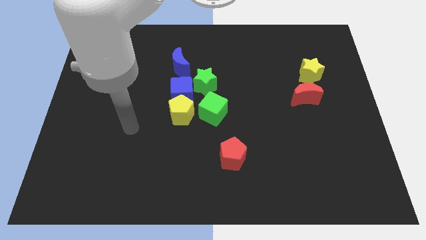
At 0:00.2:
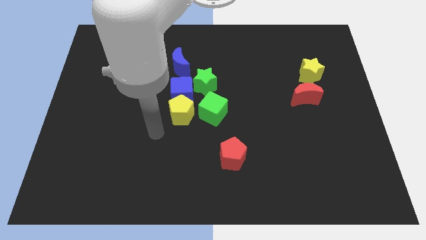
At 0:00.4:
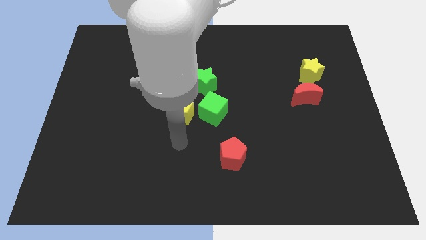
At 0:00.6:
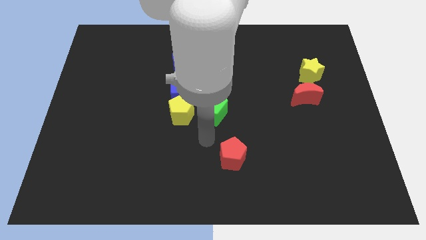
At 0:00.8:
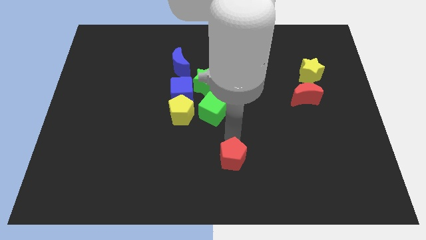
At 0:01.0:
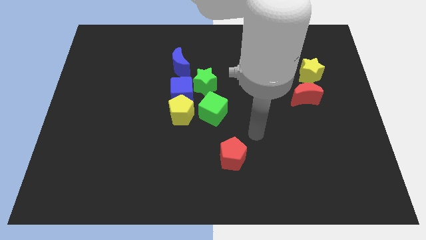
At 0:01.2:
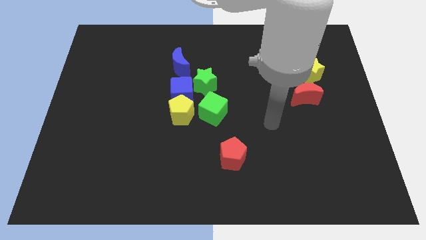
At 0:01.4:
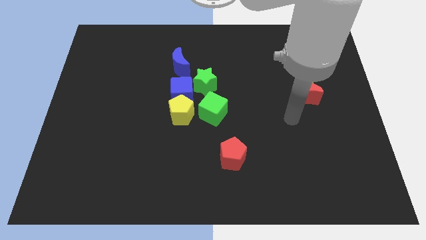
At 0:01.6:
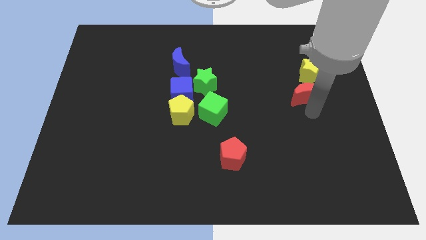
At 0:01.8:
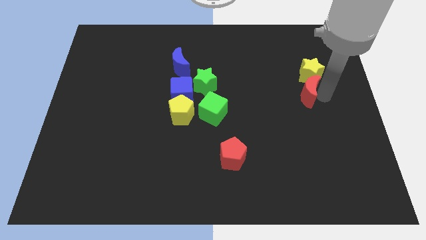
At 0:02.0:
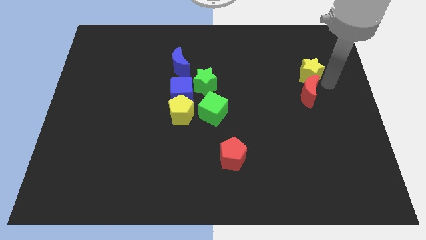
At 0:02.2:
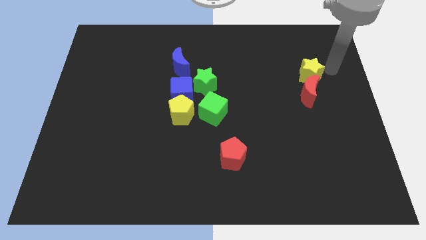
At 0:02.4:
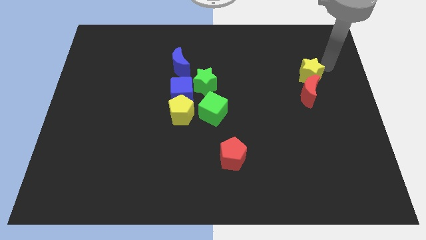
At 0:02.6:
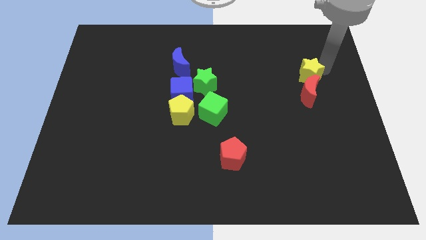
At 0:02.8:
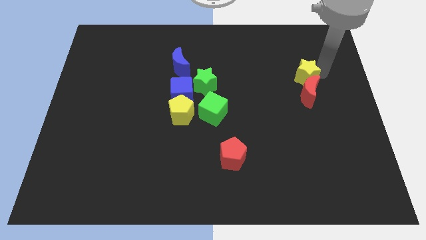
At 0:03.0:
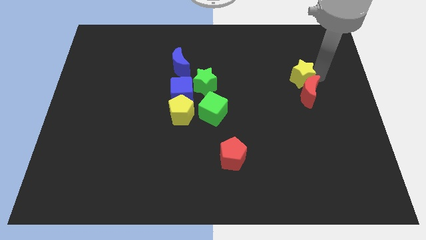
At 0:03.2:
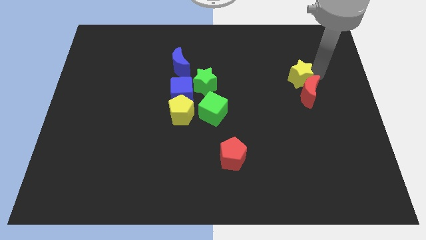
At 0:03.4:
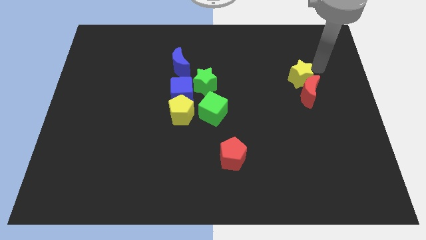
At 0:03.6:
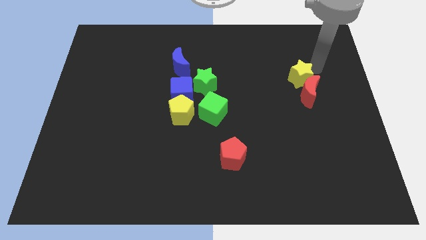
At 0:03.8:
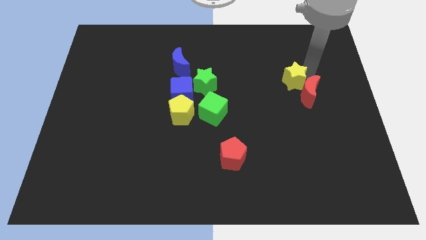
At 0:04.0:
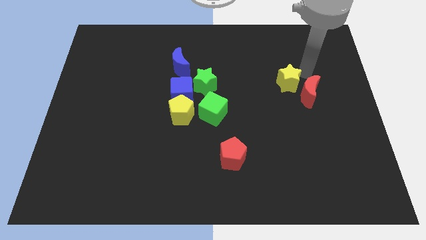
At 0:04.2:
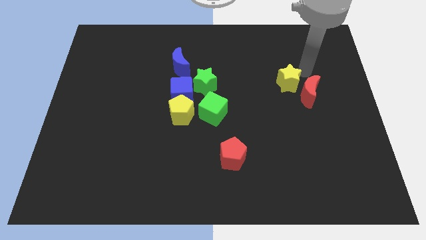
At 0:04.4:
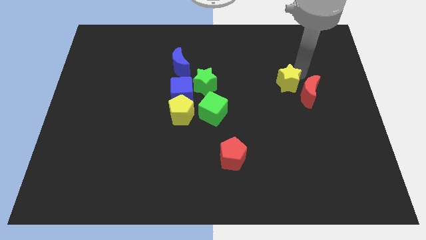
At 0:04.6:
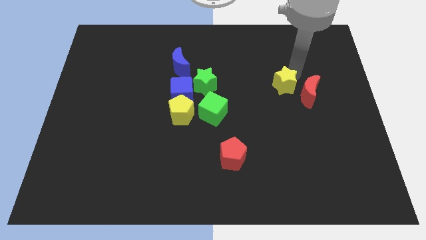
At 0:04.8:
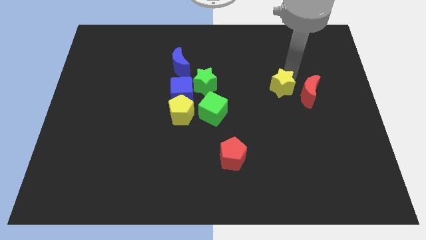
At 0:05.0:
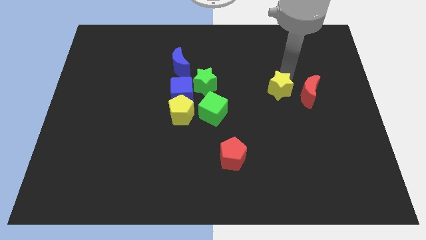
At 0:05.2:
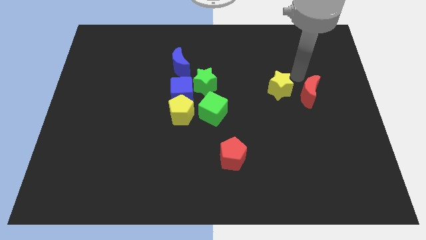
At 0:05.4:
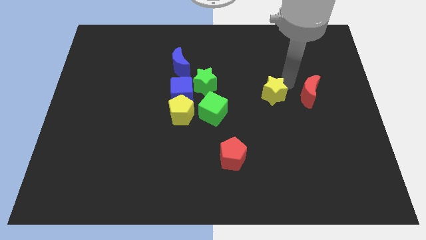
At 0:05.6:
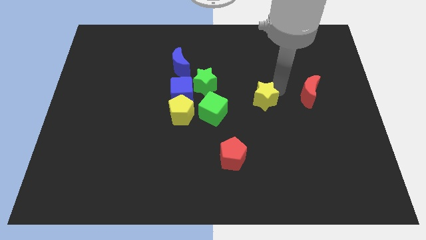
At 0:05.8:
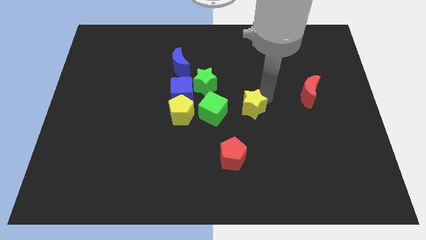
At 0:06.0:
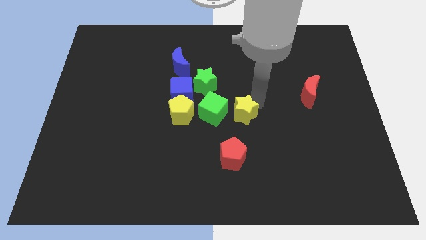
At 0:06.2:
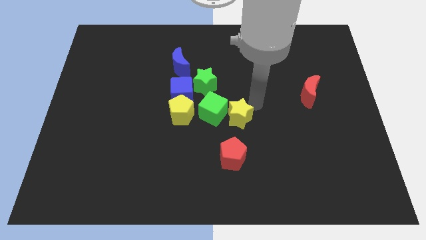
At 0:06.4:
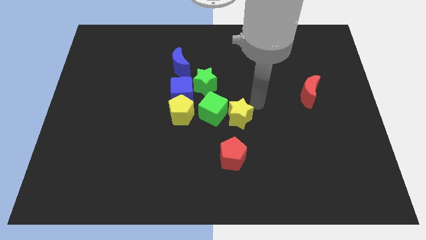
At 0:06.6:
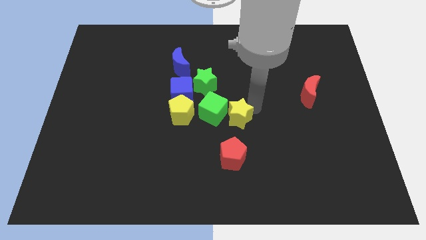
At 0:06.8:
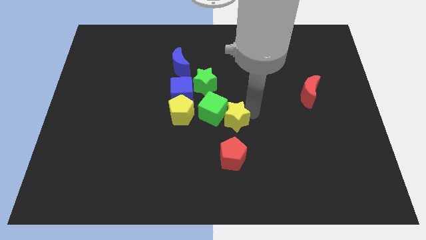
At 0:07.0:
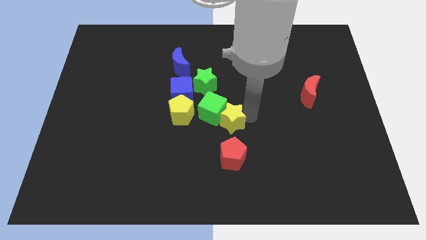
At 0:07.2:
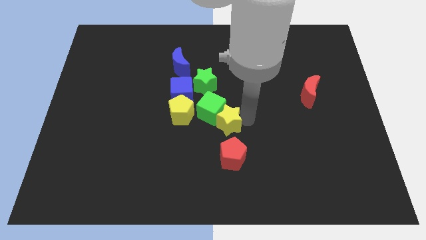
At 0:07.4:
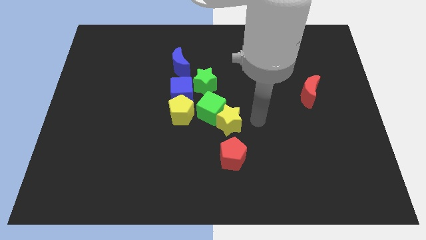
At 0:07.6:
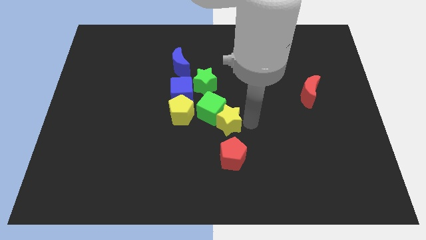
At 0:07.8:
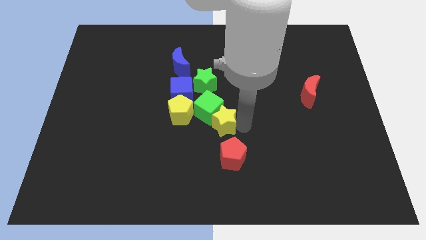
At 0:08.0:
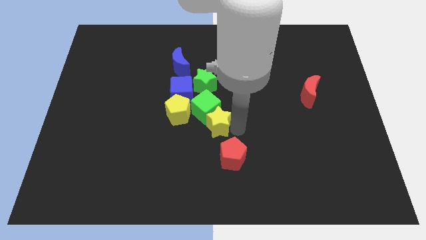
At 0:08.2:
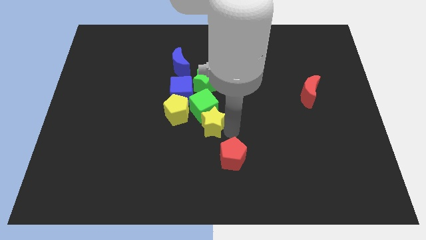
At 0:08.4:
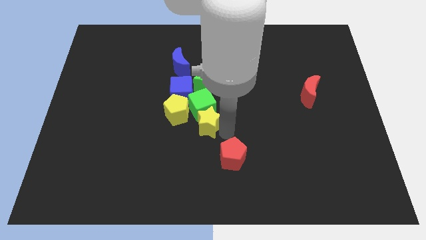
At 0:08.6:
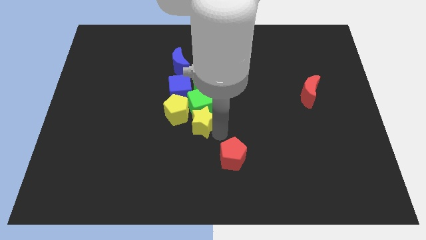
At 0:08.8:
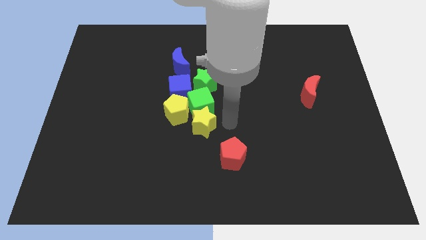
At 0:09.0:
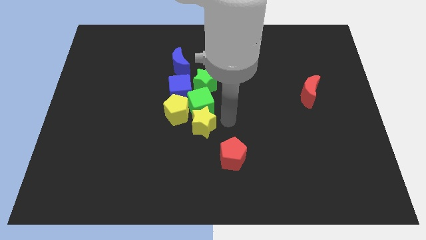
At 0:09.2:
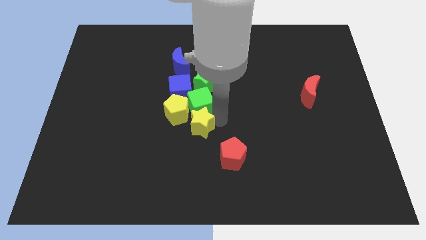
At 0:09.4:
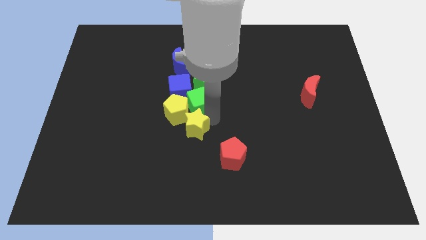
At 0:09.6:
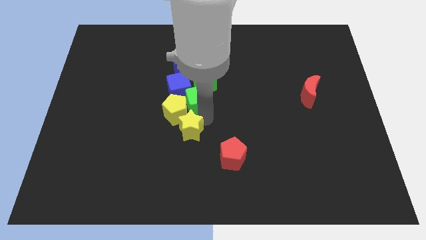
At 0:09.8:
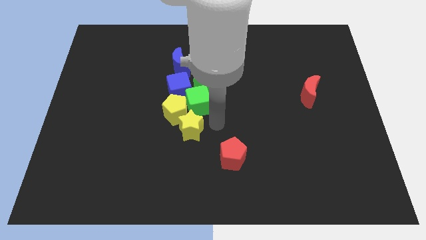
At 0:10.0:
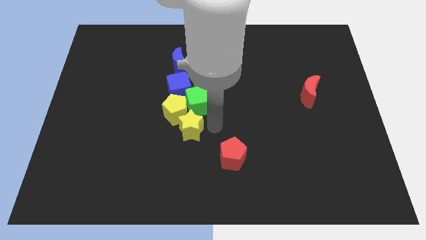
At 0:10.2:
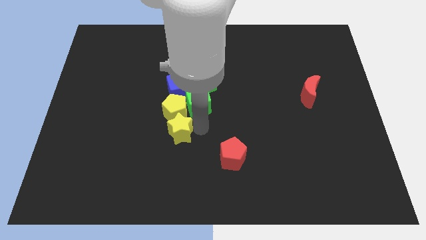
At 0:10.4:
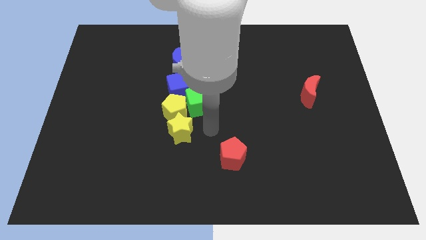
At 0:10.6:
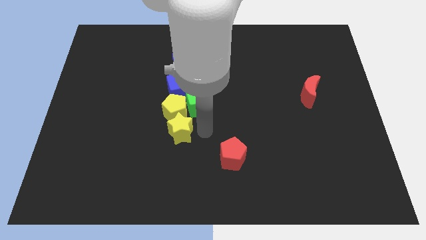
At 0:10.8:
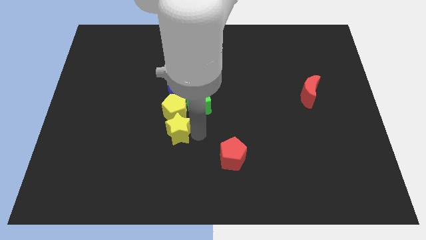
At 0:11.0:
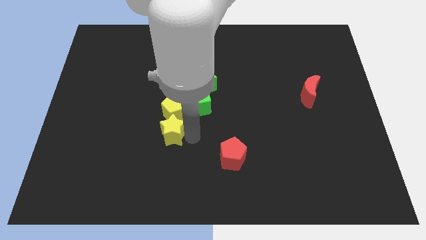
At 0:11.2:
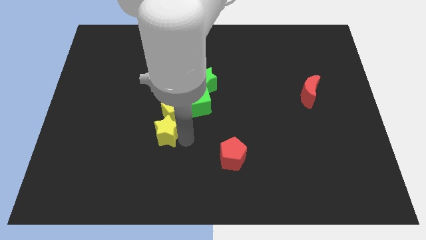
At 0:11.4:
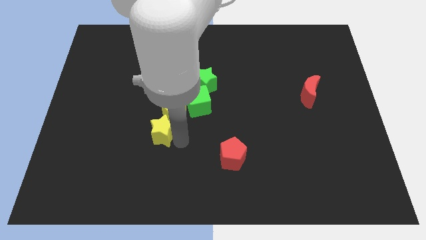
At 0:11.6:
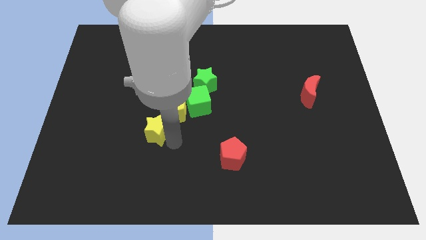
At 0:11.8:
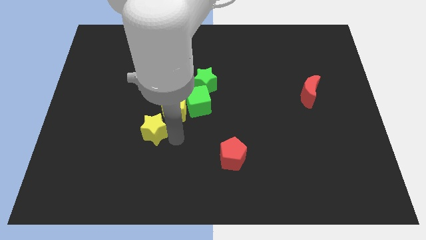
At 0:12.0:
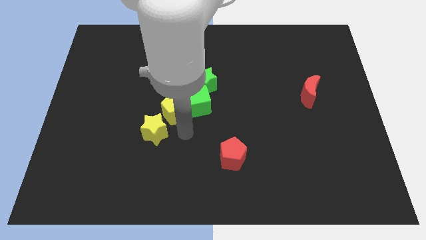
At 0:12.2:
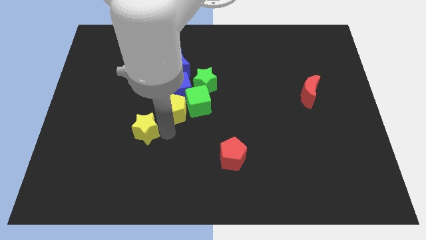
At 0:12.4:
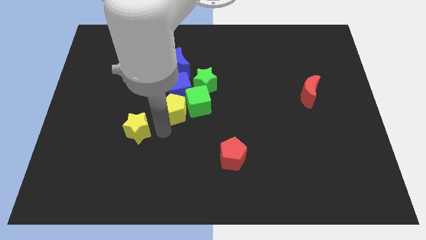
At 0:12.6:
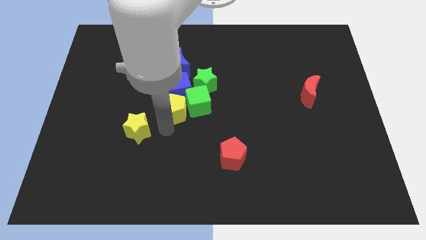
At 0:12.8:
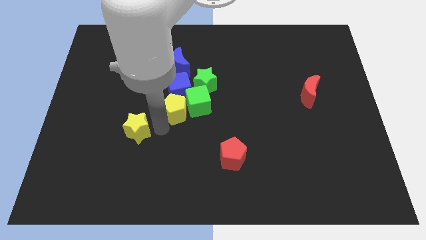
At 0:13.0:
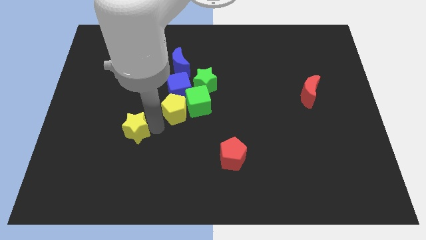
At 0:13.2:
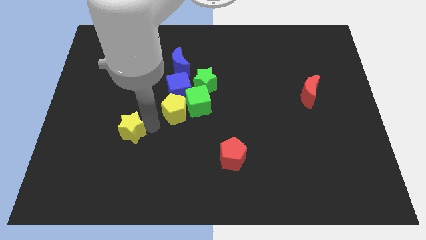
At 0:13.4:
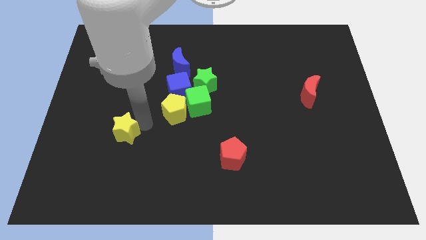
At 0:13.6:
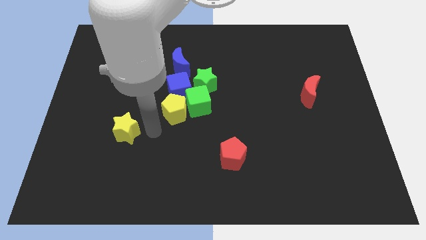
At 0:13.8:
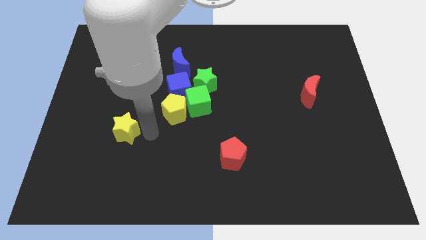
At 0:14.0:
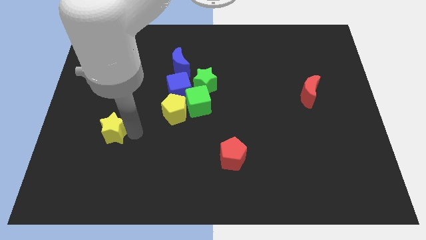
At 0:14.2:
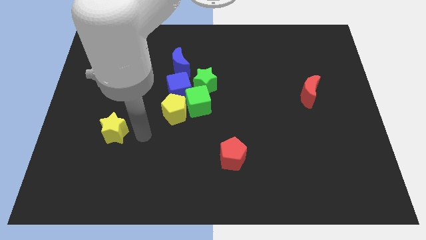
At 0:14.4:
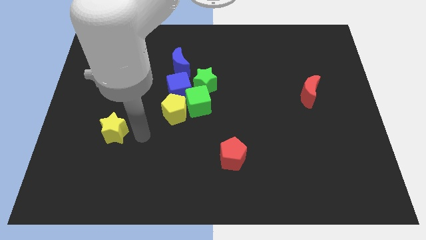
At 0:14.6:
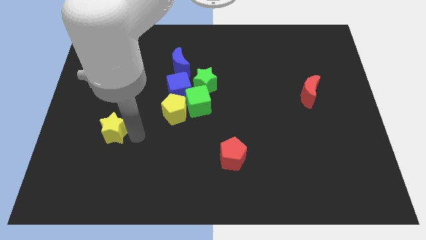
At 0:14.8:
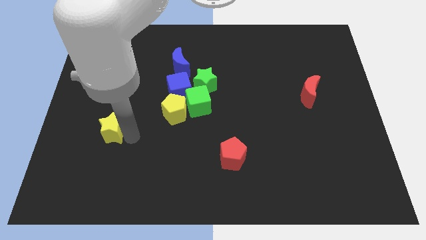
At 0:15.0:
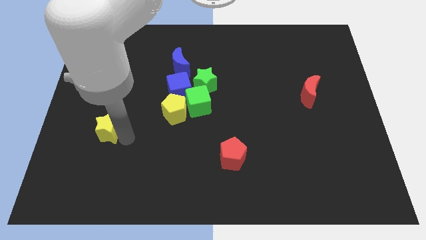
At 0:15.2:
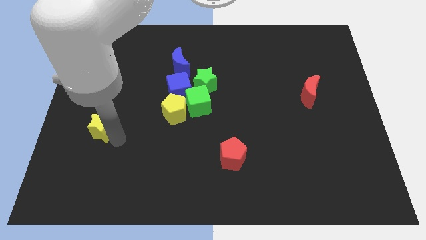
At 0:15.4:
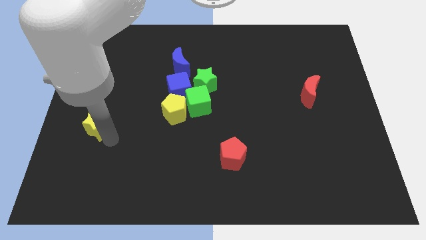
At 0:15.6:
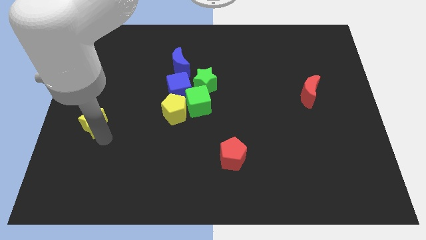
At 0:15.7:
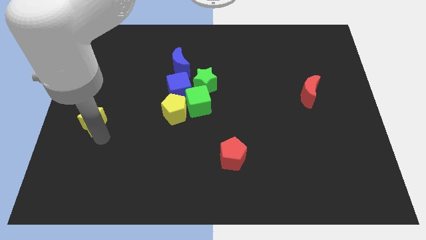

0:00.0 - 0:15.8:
push the yellow star to the left side
